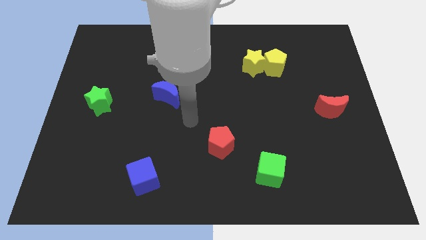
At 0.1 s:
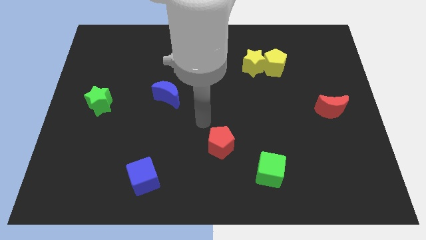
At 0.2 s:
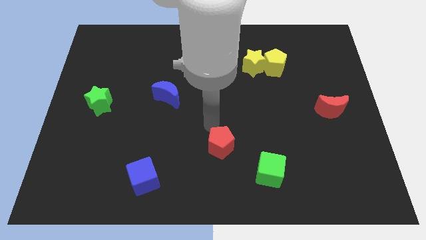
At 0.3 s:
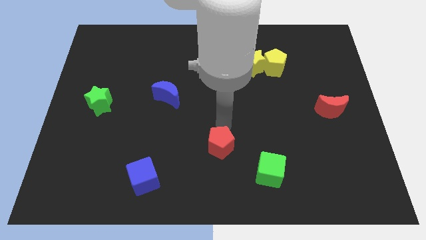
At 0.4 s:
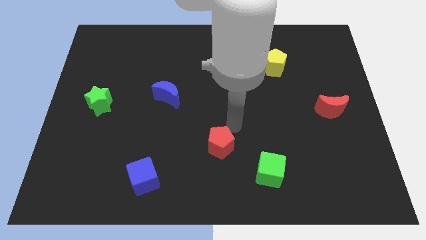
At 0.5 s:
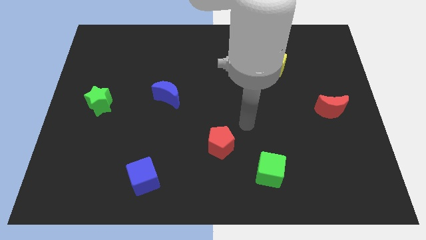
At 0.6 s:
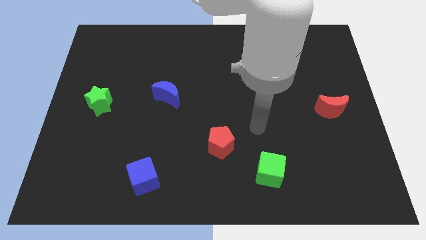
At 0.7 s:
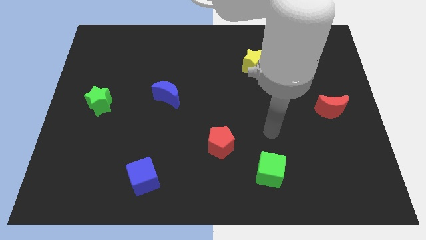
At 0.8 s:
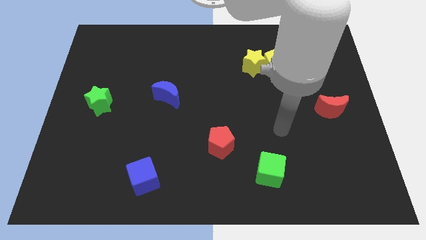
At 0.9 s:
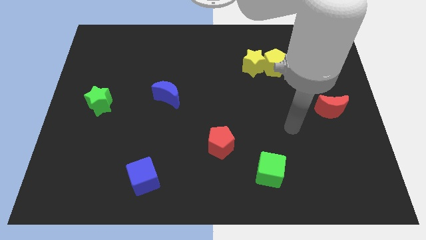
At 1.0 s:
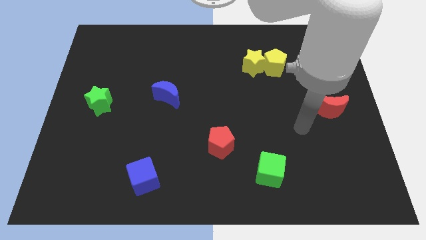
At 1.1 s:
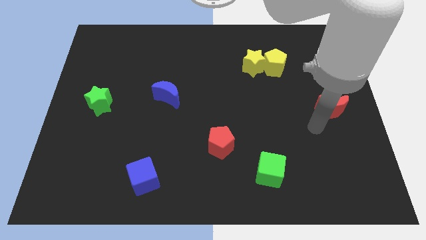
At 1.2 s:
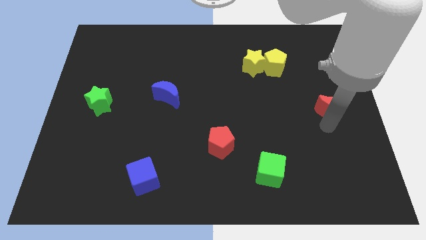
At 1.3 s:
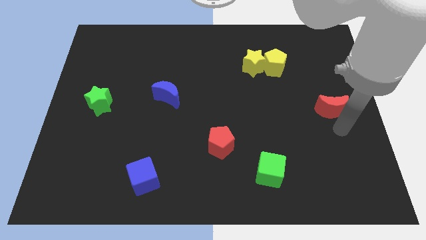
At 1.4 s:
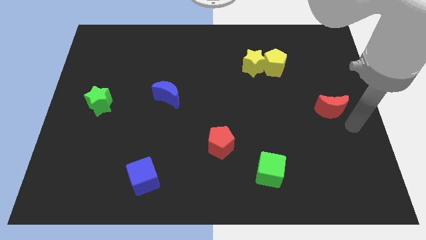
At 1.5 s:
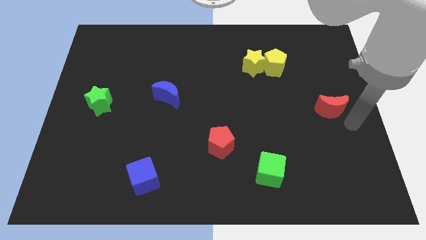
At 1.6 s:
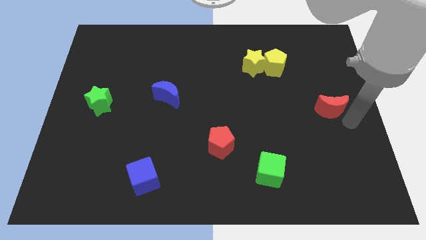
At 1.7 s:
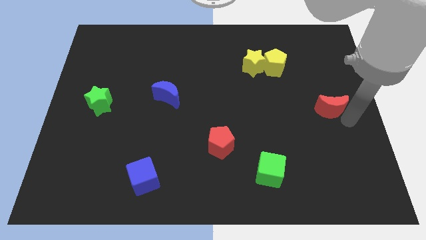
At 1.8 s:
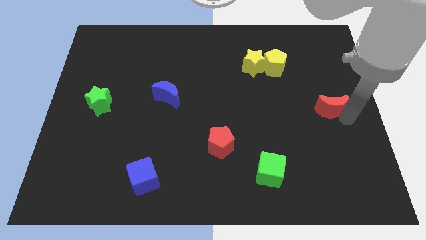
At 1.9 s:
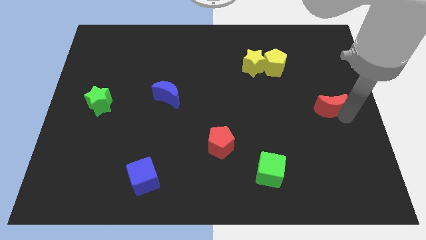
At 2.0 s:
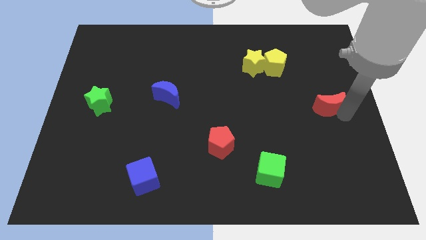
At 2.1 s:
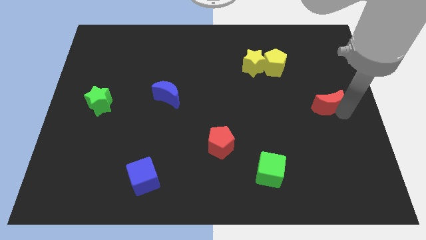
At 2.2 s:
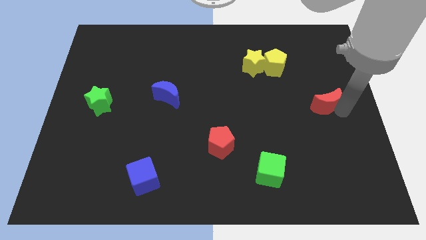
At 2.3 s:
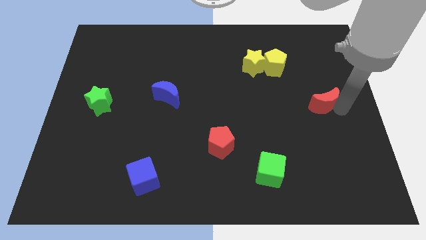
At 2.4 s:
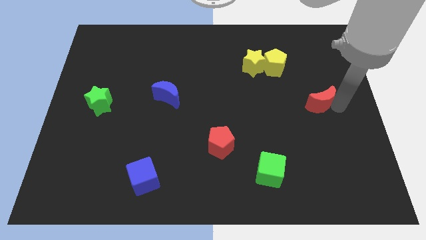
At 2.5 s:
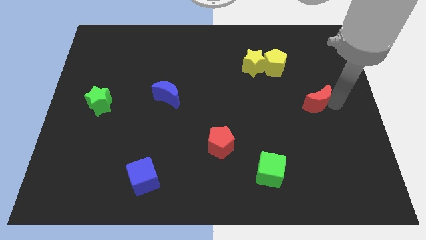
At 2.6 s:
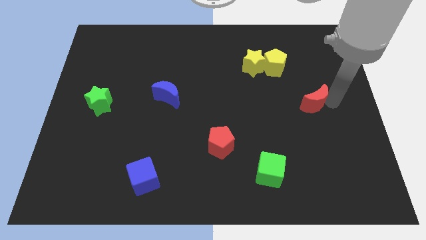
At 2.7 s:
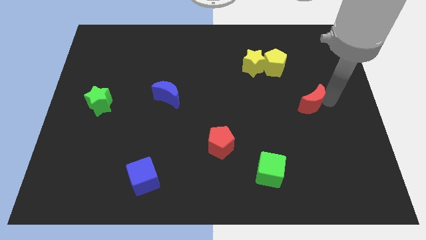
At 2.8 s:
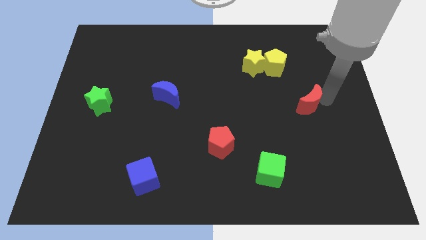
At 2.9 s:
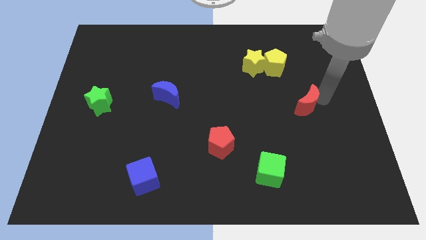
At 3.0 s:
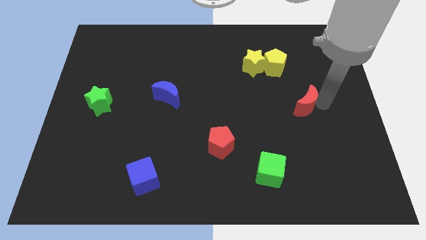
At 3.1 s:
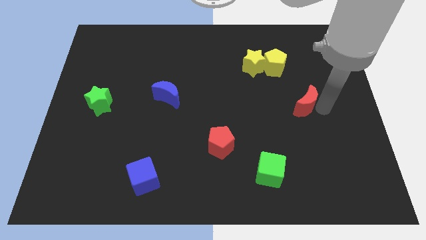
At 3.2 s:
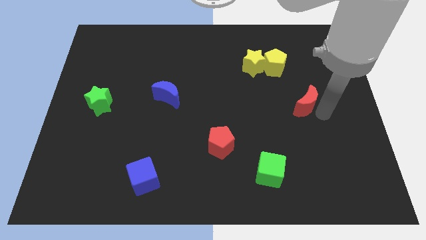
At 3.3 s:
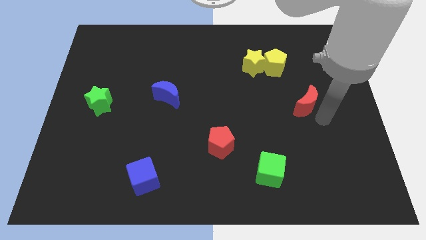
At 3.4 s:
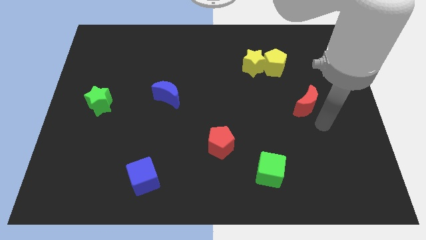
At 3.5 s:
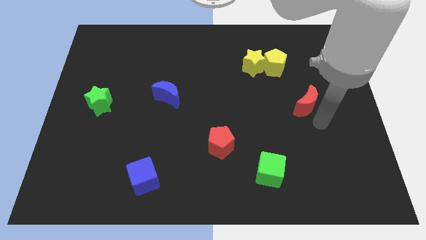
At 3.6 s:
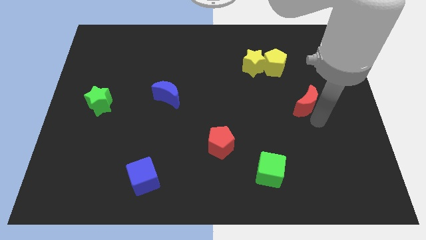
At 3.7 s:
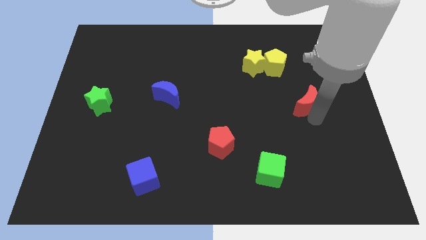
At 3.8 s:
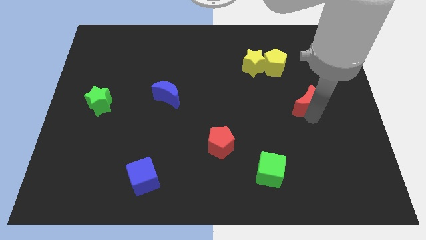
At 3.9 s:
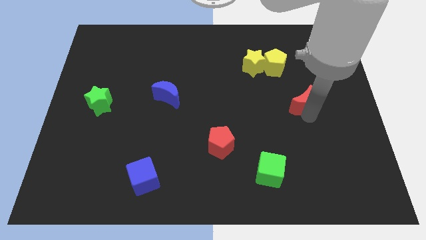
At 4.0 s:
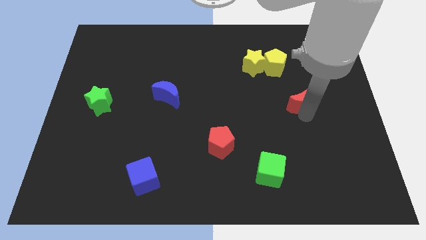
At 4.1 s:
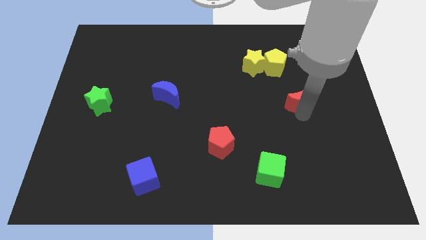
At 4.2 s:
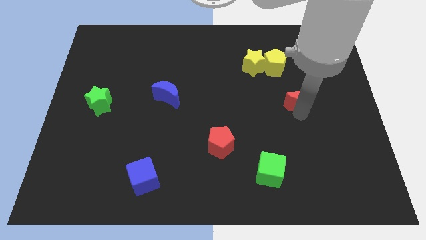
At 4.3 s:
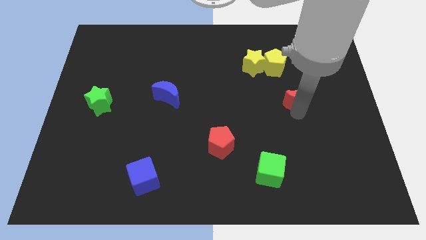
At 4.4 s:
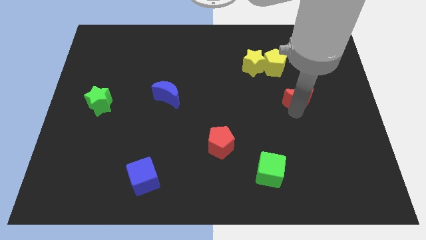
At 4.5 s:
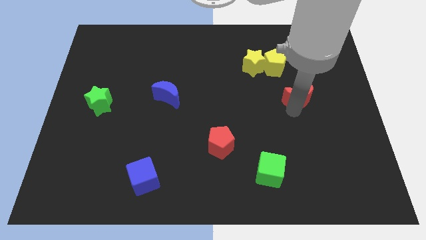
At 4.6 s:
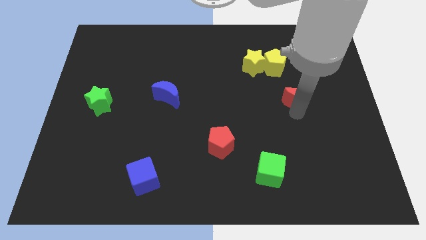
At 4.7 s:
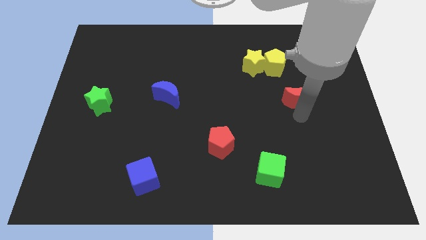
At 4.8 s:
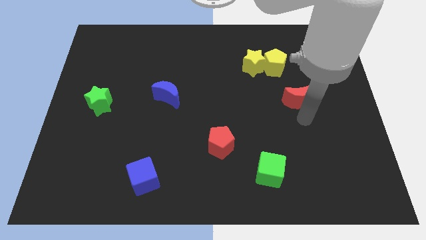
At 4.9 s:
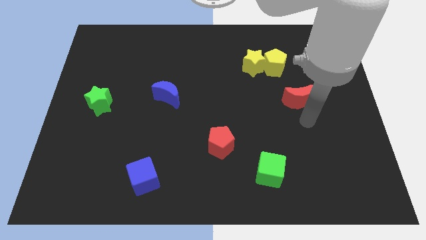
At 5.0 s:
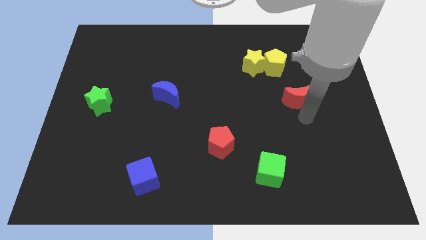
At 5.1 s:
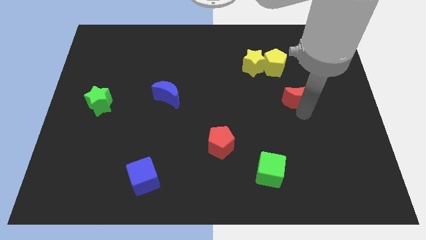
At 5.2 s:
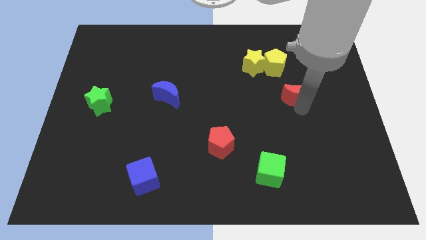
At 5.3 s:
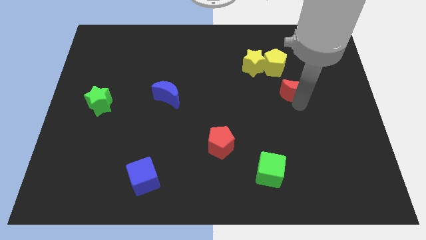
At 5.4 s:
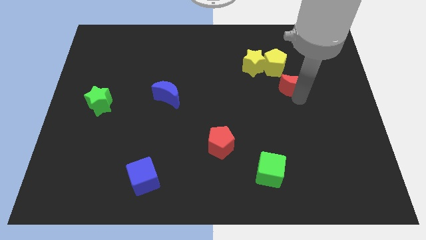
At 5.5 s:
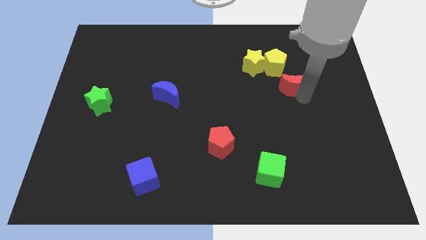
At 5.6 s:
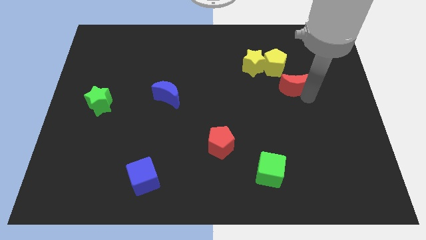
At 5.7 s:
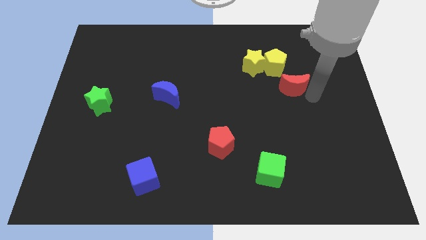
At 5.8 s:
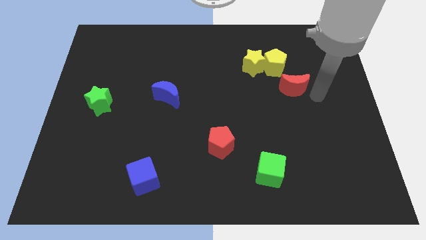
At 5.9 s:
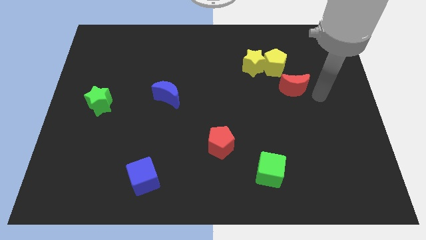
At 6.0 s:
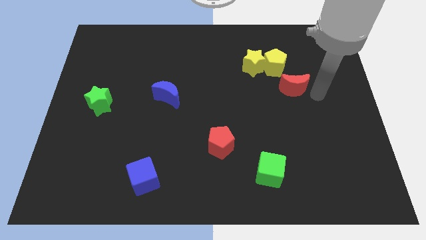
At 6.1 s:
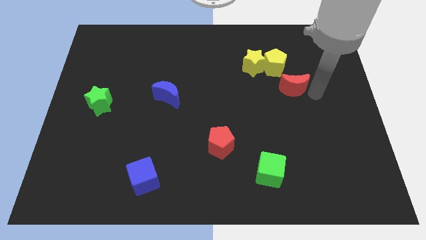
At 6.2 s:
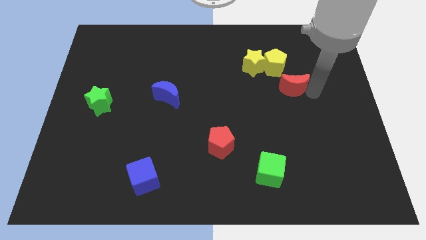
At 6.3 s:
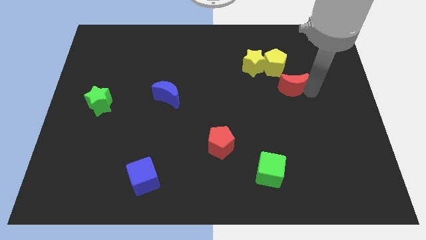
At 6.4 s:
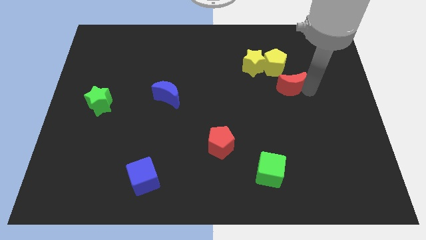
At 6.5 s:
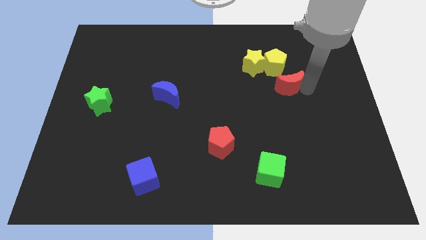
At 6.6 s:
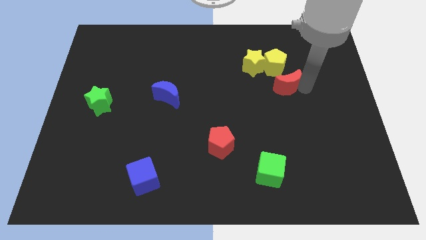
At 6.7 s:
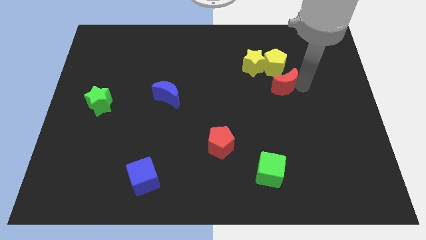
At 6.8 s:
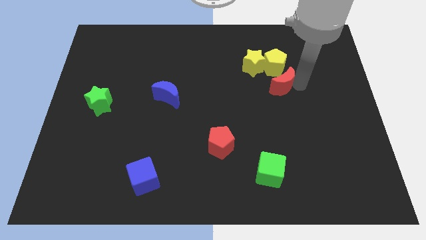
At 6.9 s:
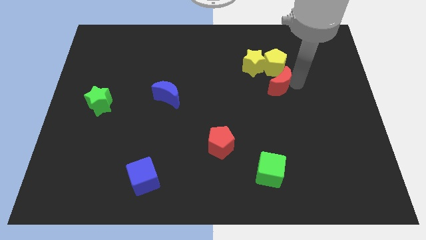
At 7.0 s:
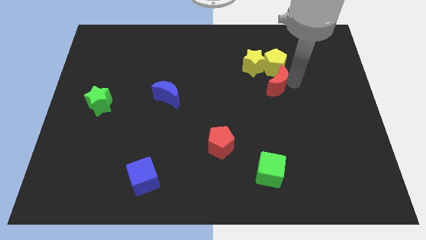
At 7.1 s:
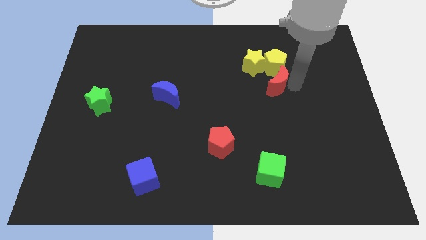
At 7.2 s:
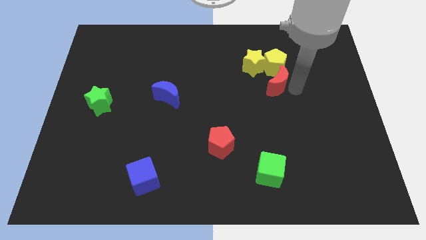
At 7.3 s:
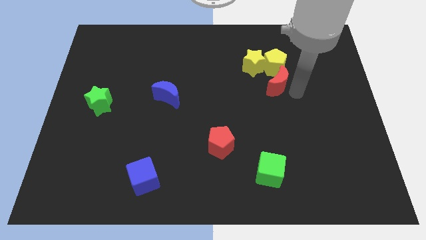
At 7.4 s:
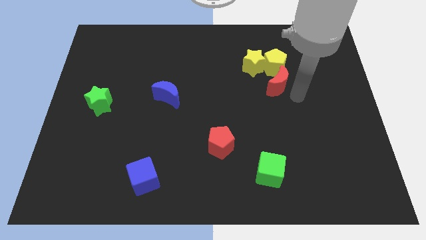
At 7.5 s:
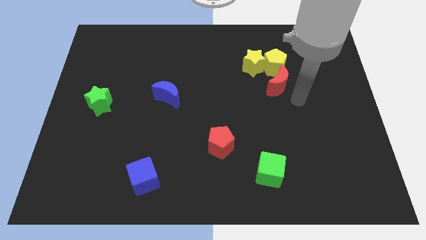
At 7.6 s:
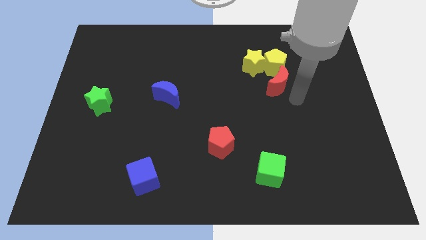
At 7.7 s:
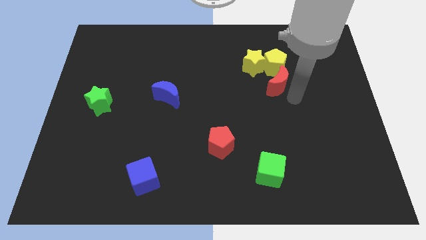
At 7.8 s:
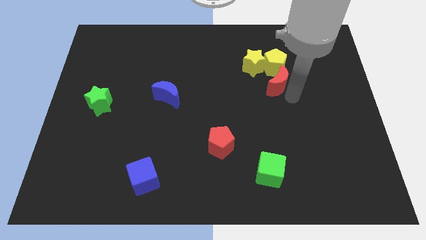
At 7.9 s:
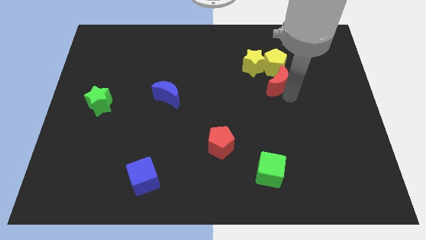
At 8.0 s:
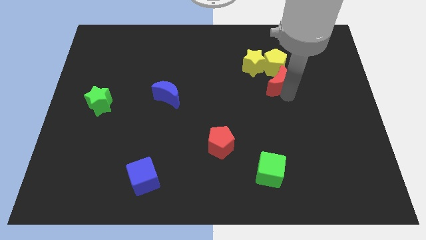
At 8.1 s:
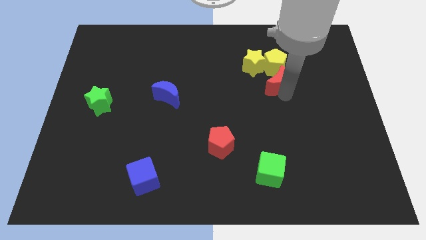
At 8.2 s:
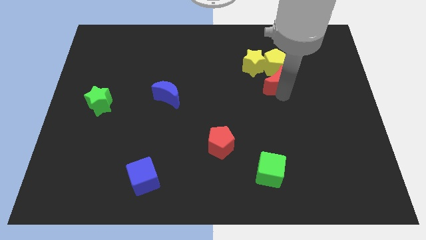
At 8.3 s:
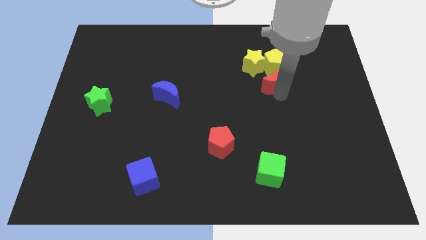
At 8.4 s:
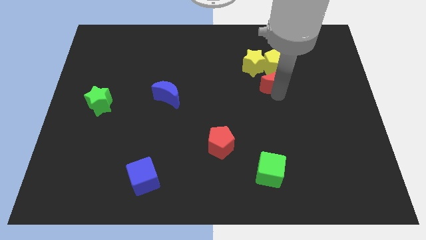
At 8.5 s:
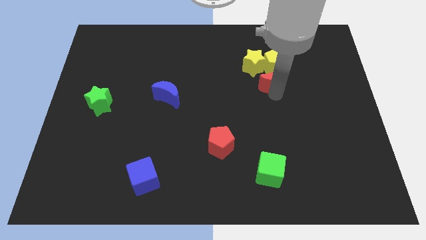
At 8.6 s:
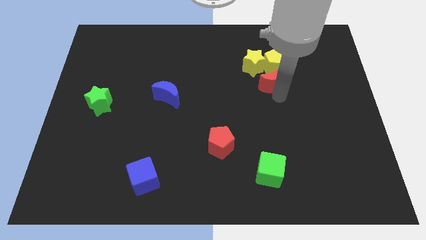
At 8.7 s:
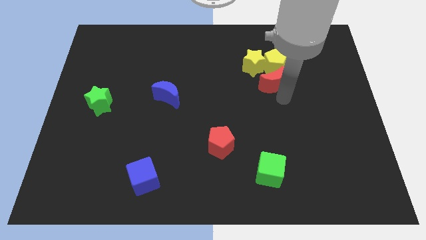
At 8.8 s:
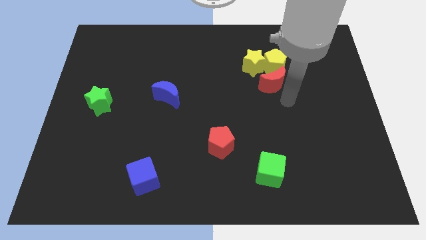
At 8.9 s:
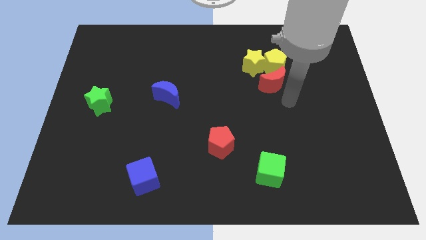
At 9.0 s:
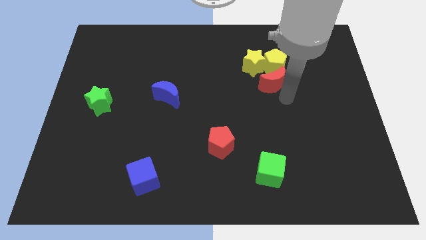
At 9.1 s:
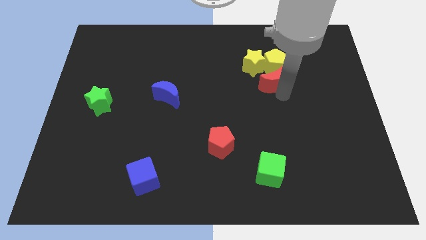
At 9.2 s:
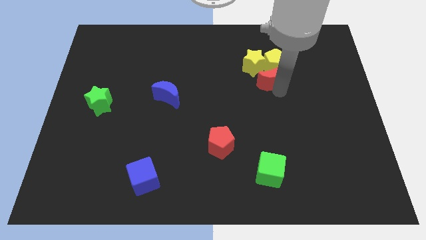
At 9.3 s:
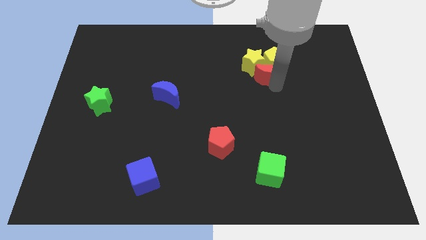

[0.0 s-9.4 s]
push the red moon to the yellow star
